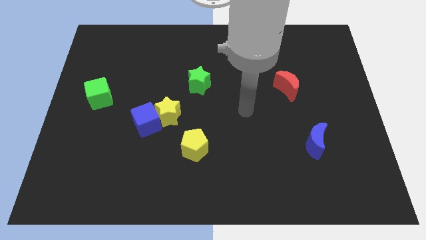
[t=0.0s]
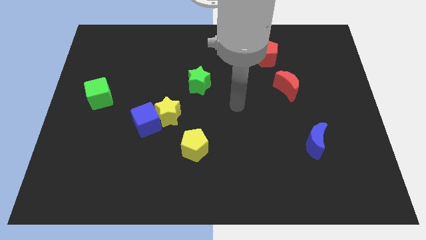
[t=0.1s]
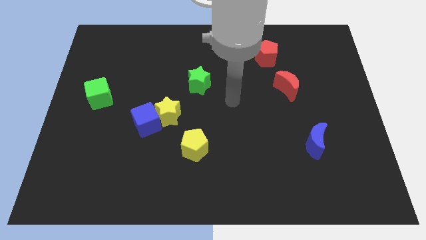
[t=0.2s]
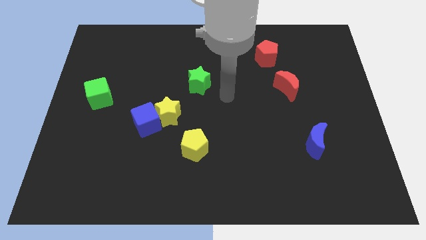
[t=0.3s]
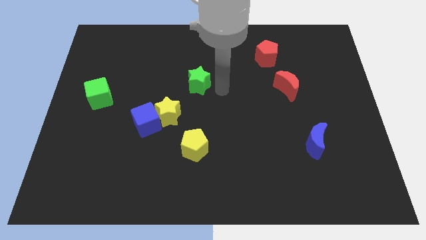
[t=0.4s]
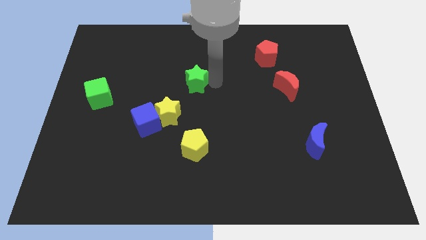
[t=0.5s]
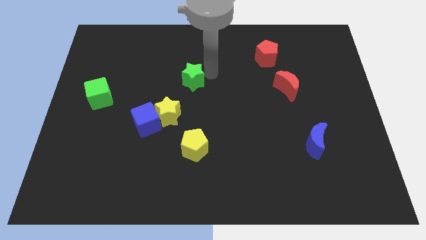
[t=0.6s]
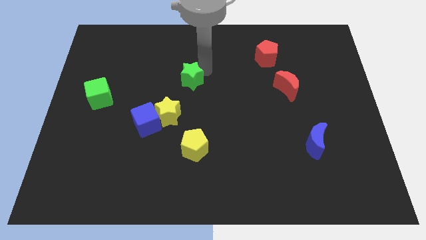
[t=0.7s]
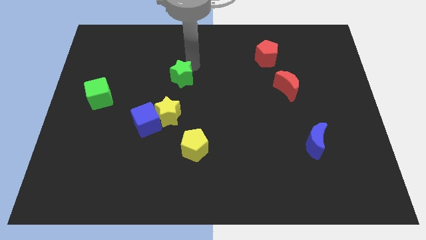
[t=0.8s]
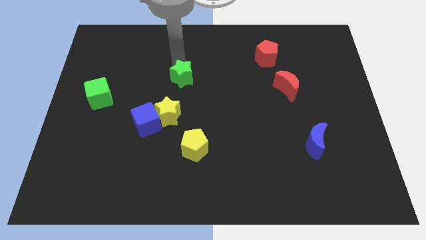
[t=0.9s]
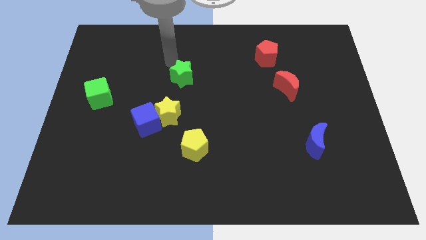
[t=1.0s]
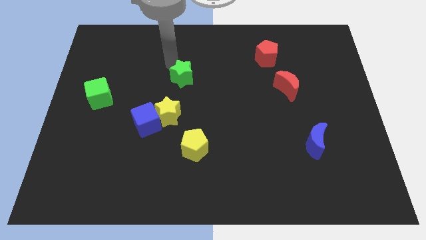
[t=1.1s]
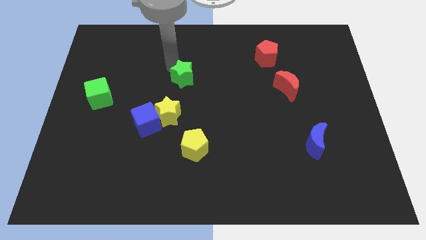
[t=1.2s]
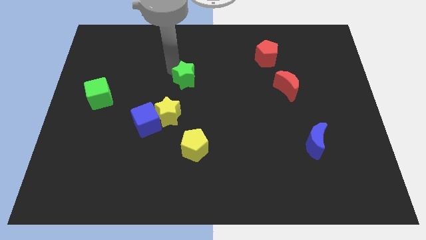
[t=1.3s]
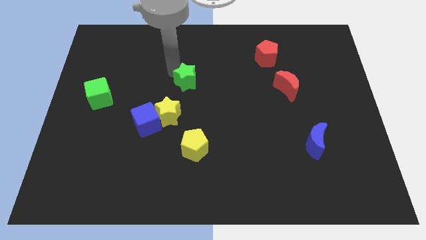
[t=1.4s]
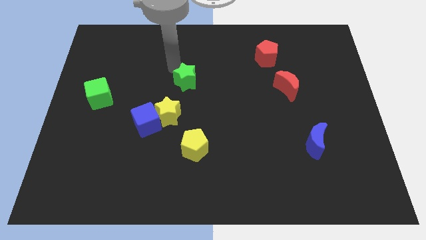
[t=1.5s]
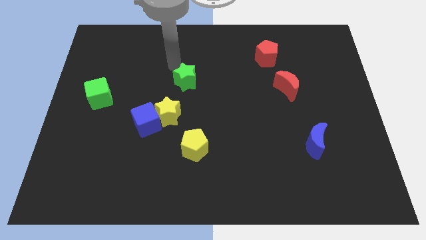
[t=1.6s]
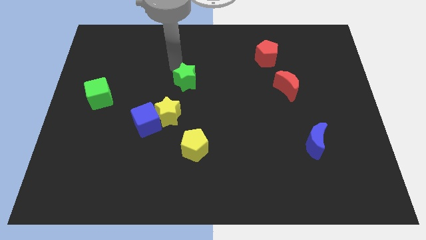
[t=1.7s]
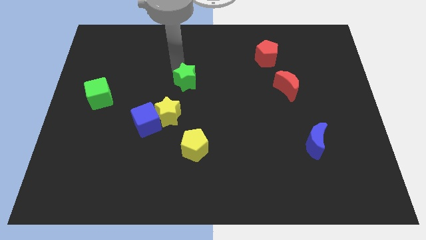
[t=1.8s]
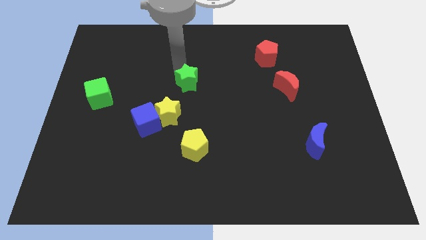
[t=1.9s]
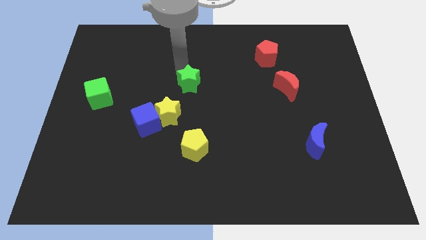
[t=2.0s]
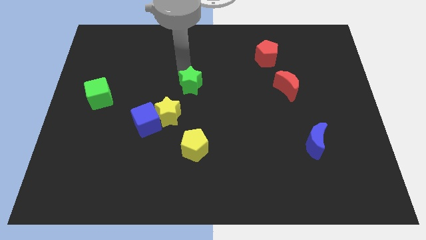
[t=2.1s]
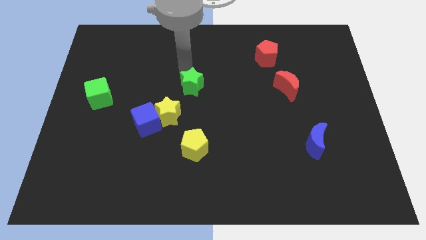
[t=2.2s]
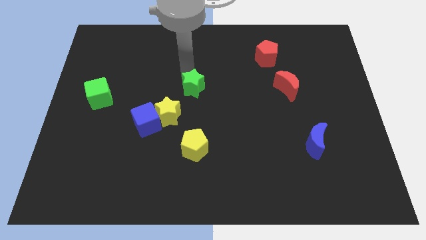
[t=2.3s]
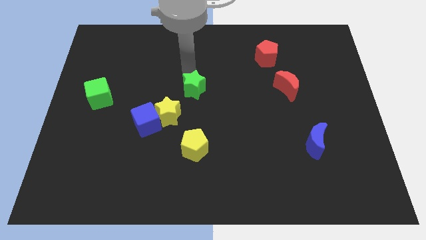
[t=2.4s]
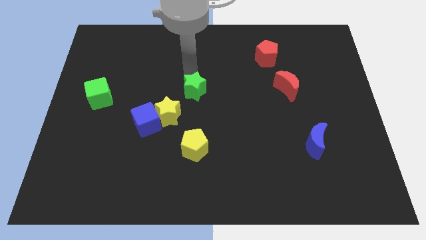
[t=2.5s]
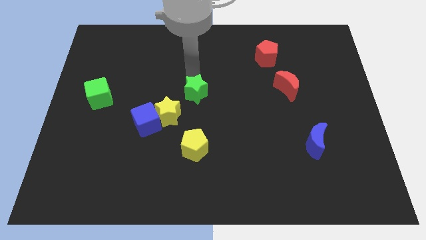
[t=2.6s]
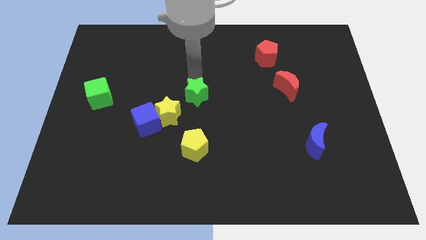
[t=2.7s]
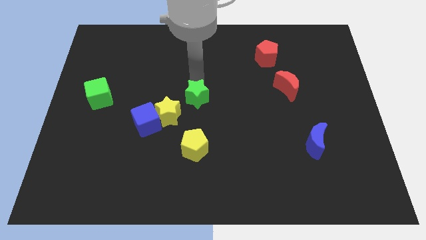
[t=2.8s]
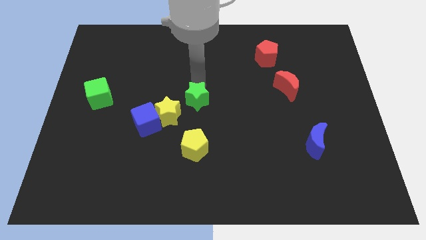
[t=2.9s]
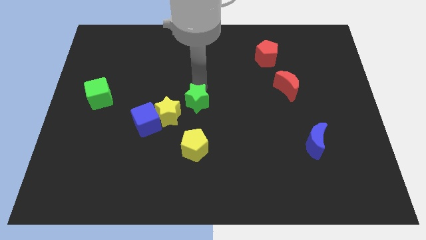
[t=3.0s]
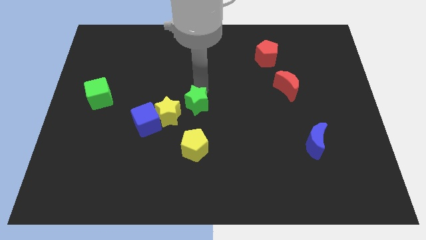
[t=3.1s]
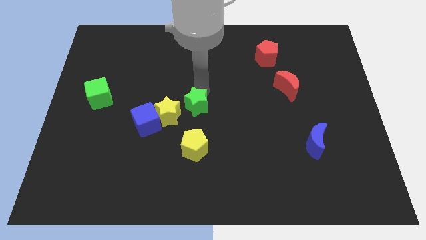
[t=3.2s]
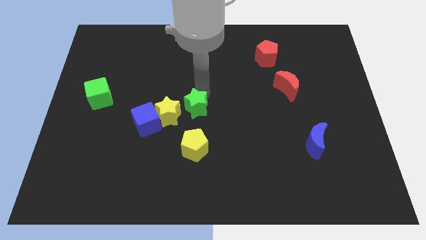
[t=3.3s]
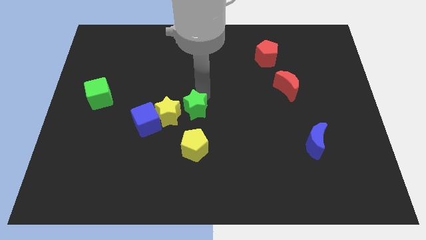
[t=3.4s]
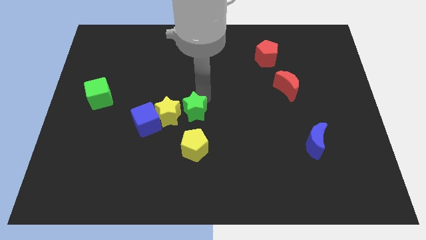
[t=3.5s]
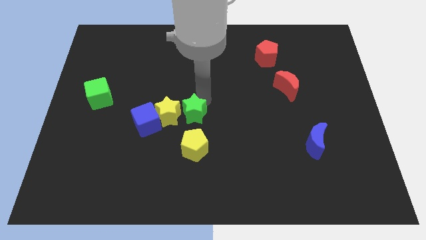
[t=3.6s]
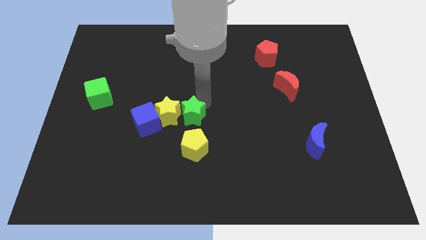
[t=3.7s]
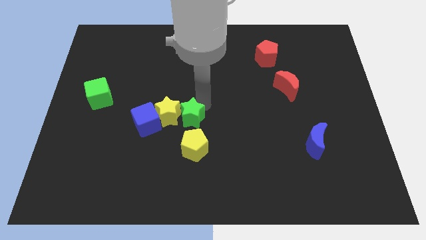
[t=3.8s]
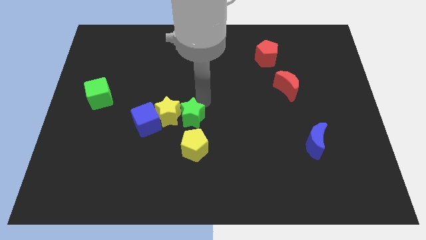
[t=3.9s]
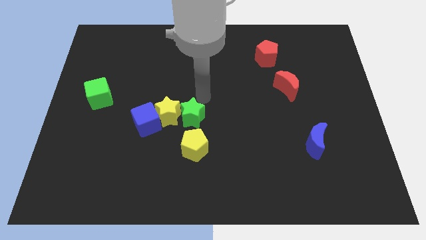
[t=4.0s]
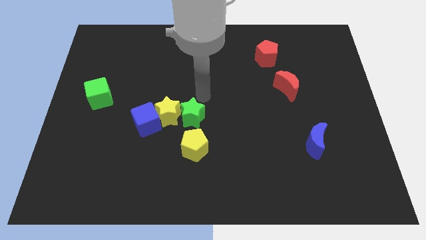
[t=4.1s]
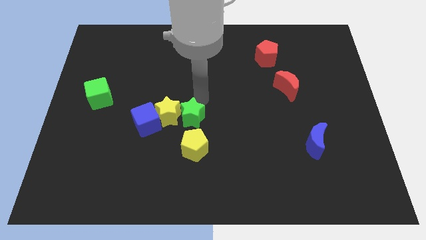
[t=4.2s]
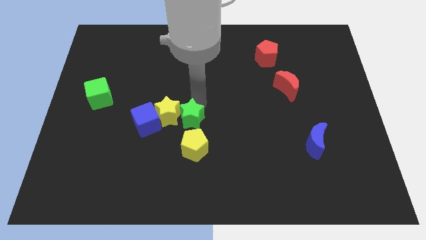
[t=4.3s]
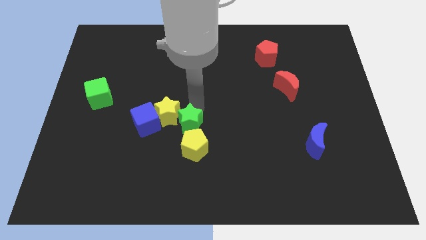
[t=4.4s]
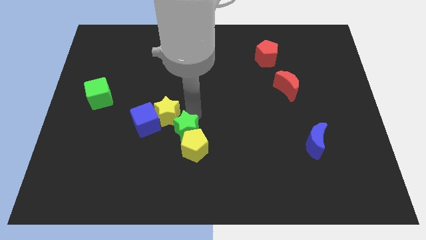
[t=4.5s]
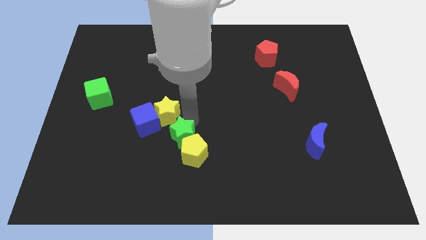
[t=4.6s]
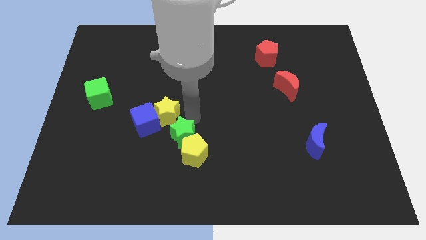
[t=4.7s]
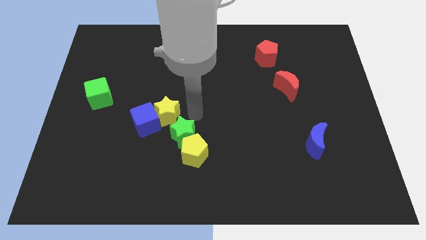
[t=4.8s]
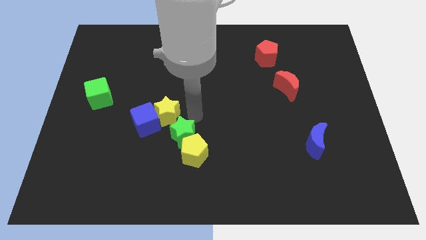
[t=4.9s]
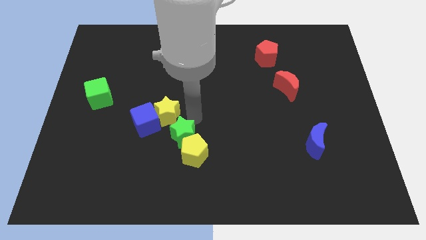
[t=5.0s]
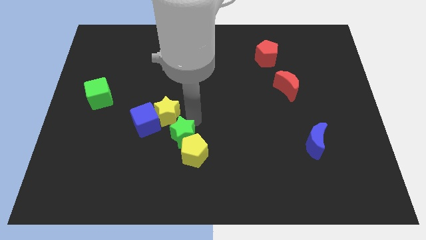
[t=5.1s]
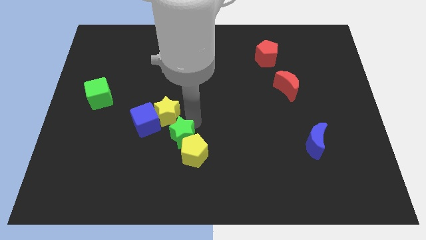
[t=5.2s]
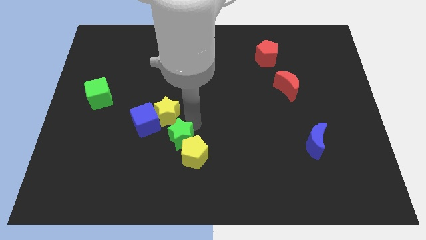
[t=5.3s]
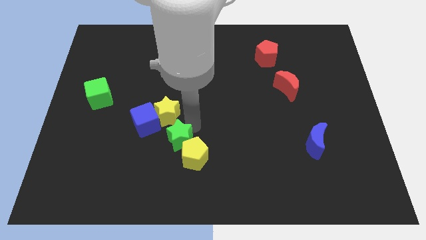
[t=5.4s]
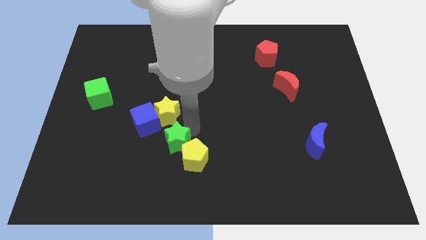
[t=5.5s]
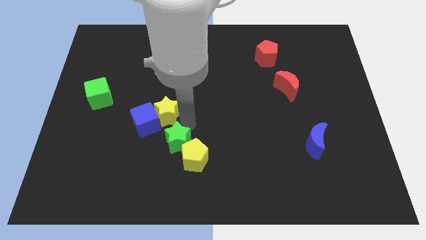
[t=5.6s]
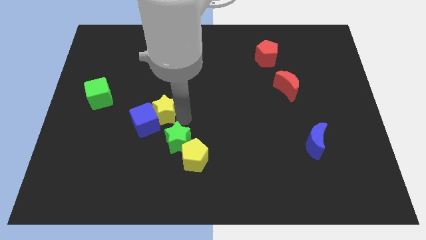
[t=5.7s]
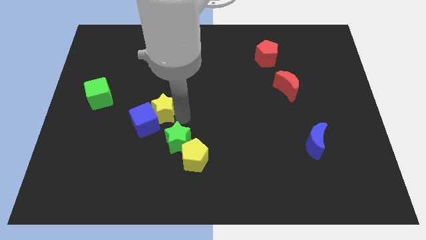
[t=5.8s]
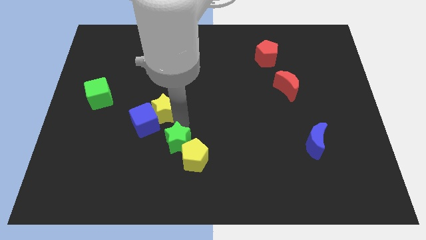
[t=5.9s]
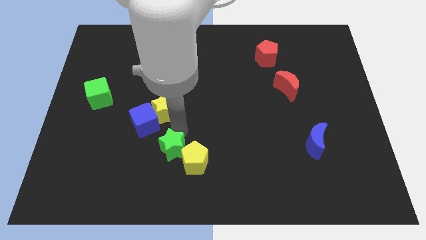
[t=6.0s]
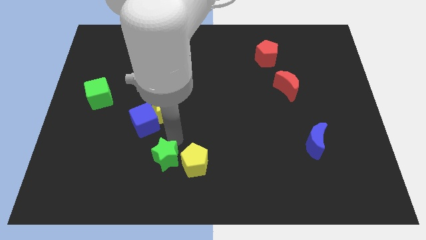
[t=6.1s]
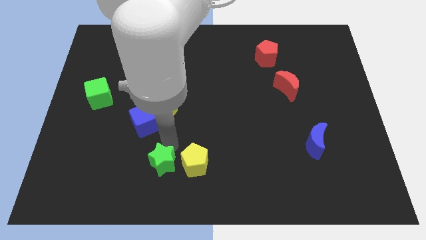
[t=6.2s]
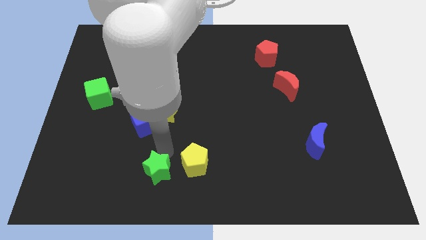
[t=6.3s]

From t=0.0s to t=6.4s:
push the green star to the bottom left side of the yellow pentagon
